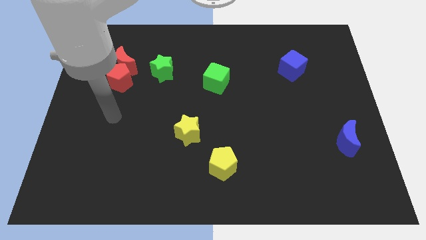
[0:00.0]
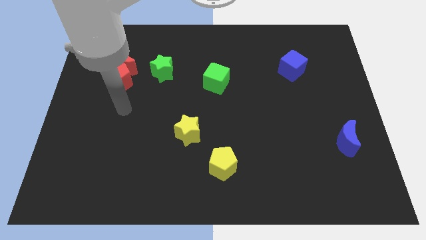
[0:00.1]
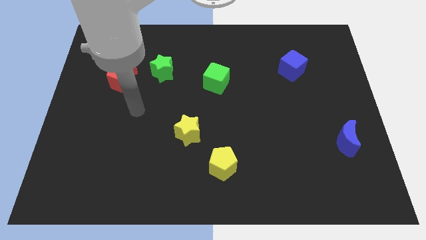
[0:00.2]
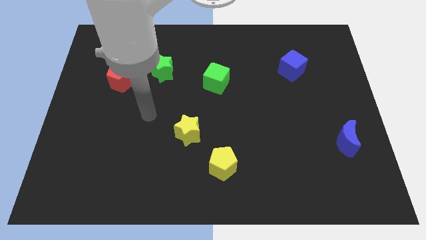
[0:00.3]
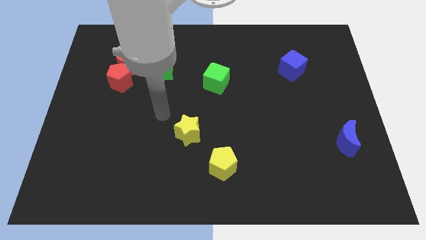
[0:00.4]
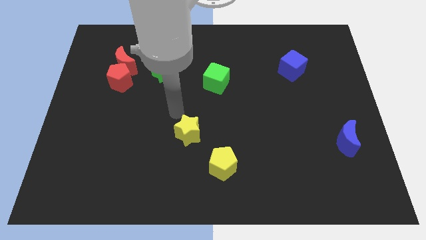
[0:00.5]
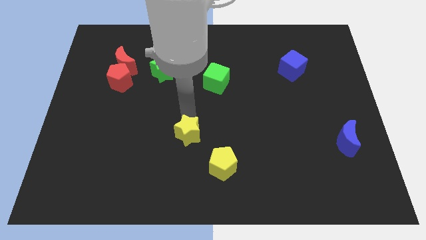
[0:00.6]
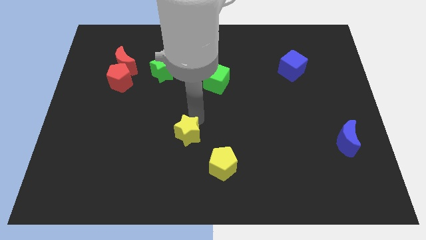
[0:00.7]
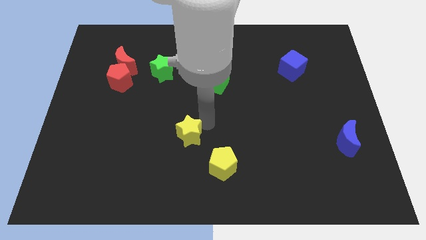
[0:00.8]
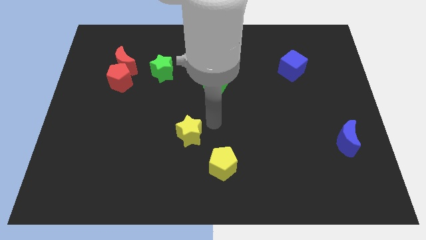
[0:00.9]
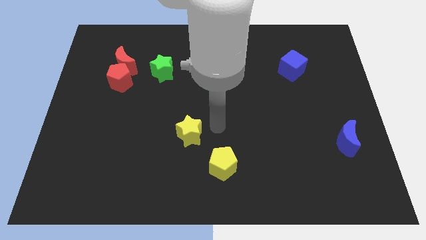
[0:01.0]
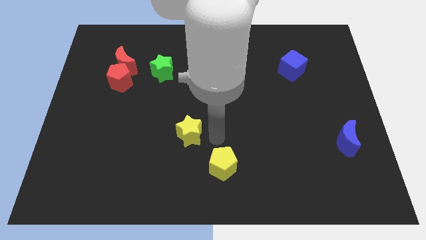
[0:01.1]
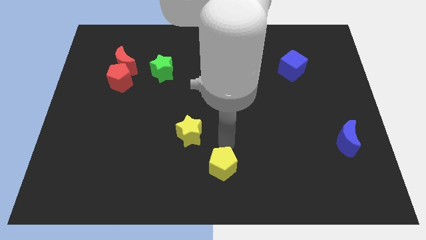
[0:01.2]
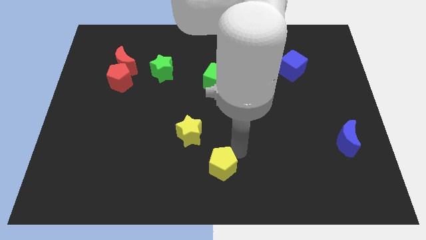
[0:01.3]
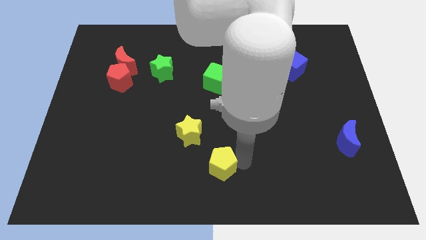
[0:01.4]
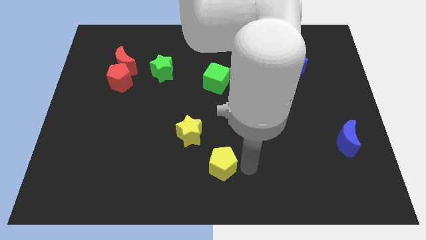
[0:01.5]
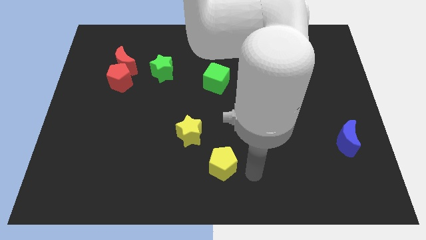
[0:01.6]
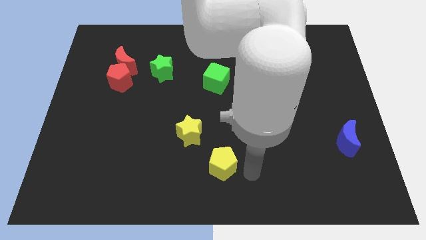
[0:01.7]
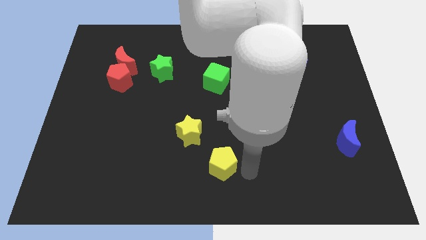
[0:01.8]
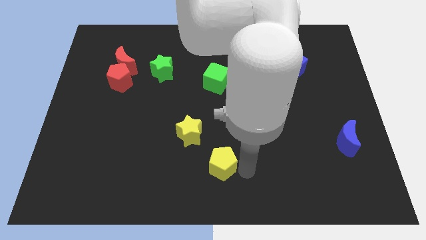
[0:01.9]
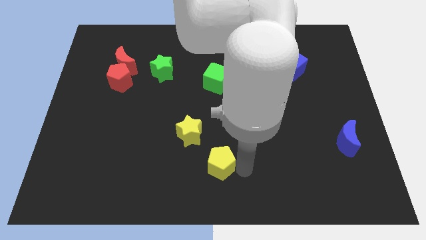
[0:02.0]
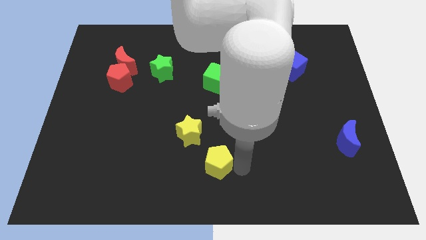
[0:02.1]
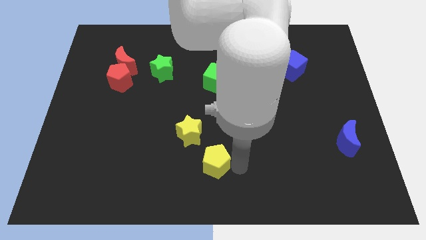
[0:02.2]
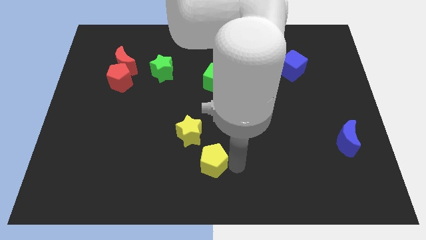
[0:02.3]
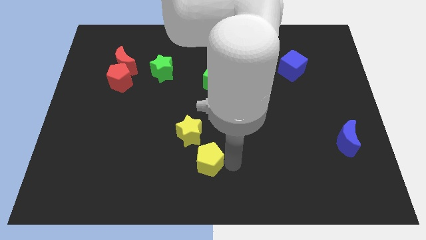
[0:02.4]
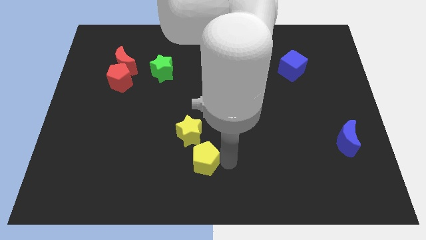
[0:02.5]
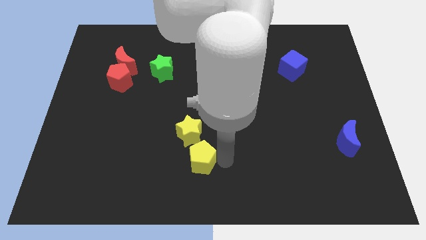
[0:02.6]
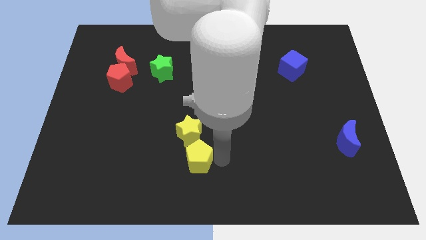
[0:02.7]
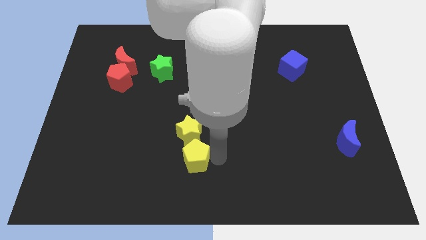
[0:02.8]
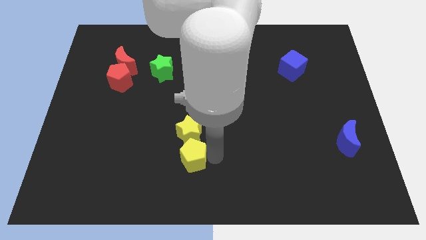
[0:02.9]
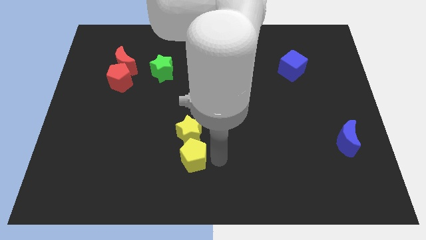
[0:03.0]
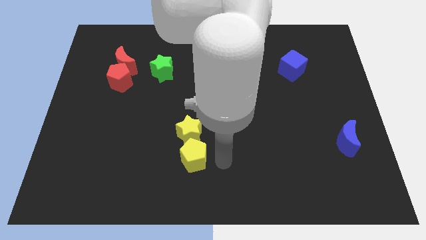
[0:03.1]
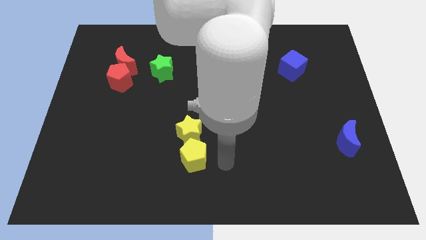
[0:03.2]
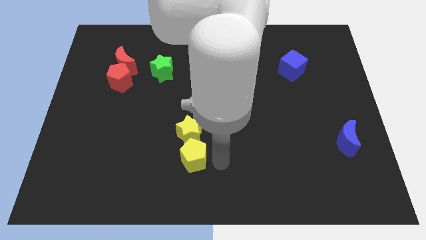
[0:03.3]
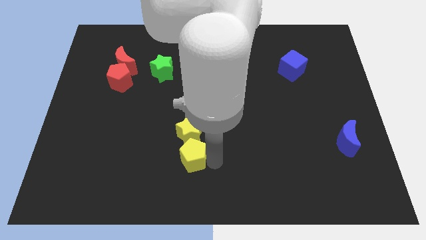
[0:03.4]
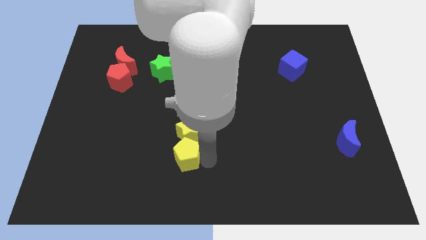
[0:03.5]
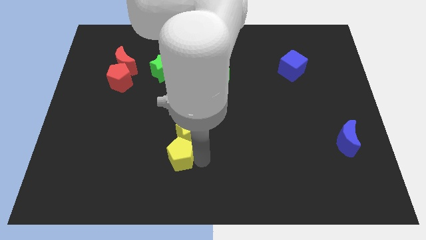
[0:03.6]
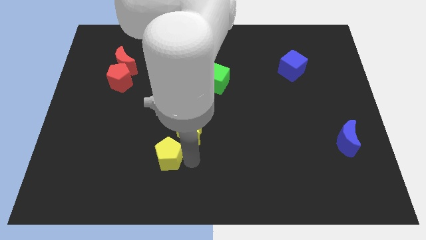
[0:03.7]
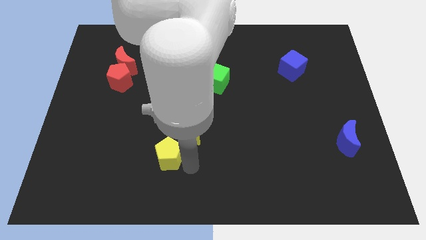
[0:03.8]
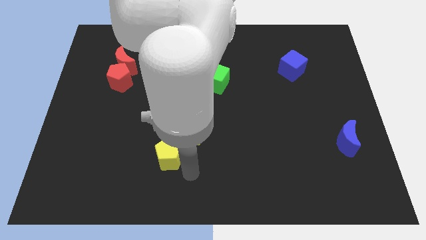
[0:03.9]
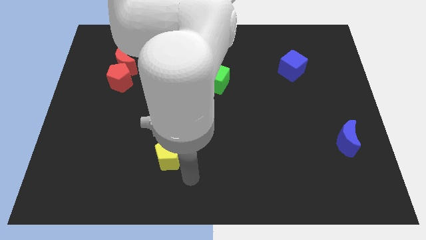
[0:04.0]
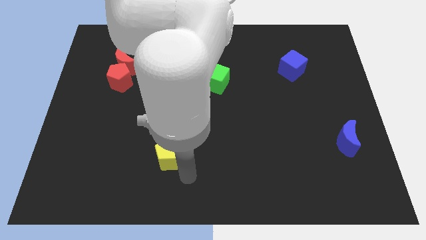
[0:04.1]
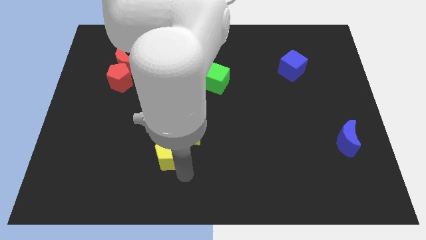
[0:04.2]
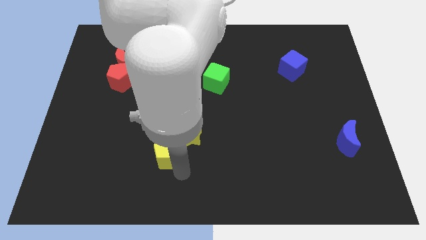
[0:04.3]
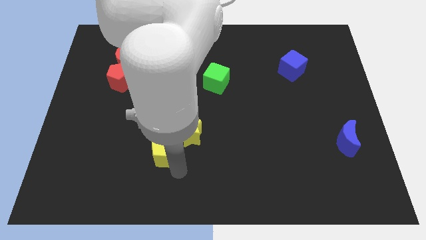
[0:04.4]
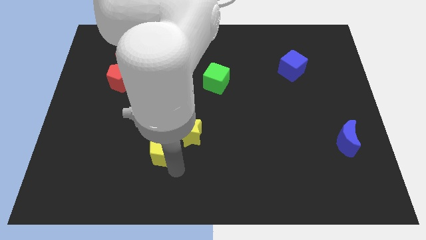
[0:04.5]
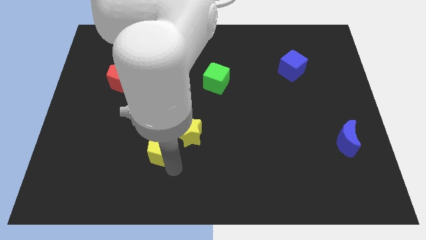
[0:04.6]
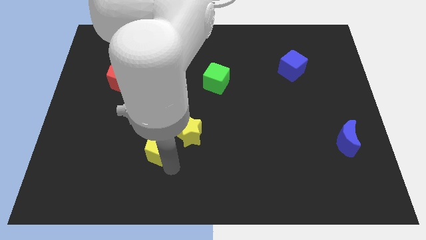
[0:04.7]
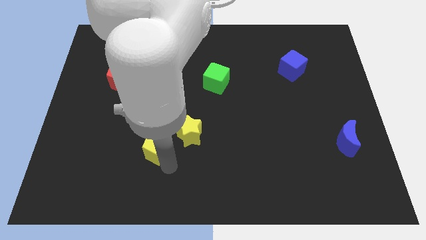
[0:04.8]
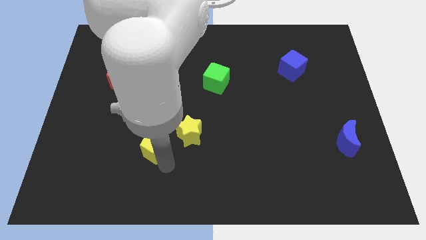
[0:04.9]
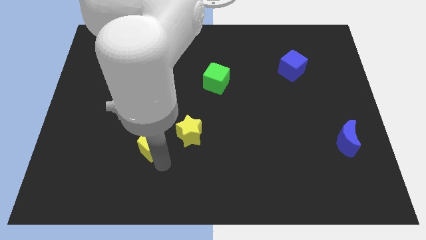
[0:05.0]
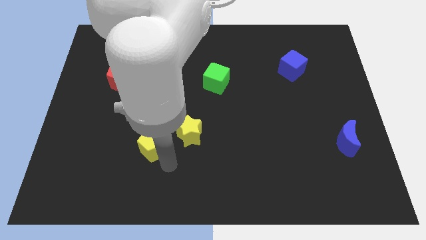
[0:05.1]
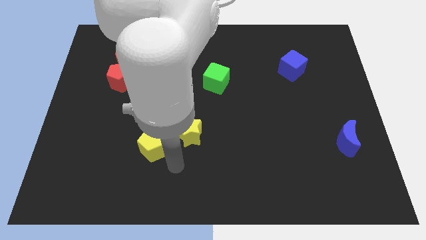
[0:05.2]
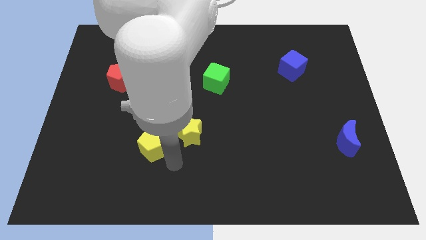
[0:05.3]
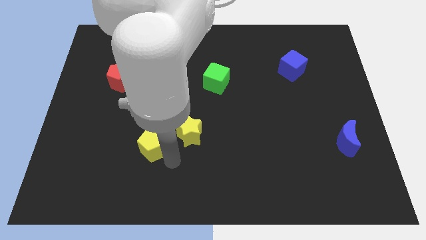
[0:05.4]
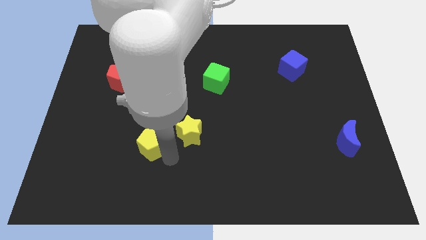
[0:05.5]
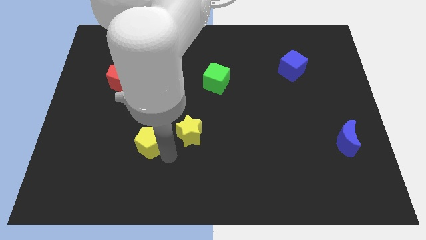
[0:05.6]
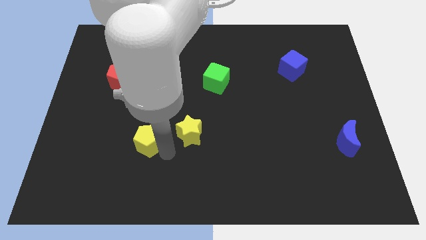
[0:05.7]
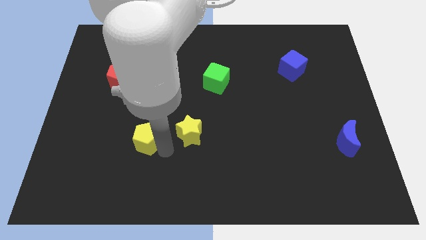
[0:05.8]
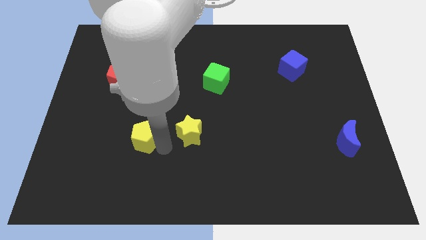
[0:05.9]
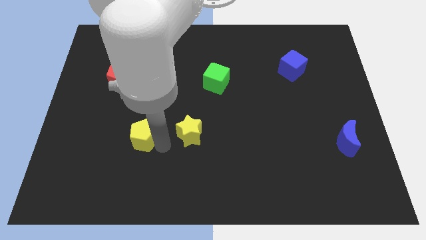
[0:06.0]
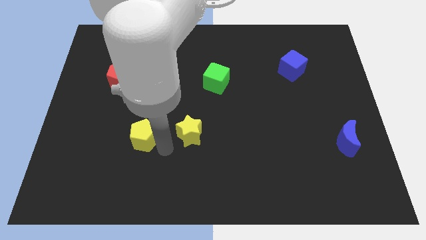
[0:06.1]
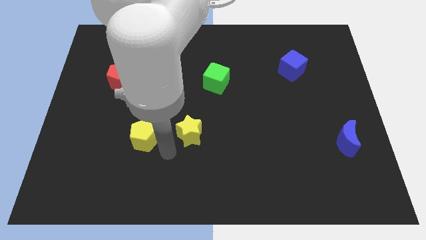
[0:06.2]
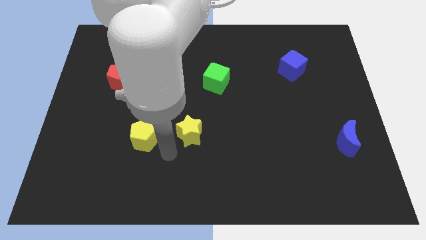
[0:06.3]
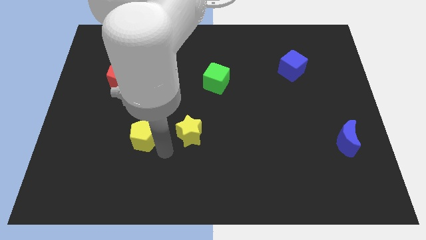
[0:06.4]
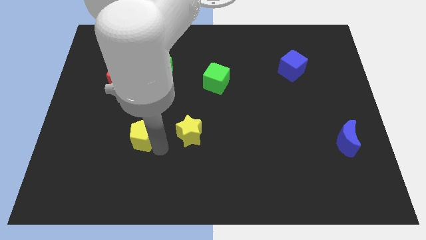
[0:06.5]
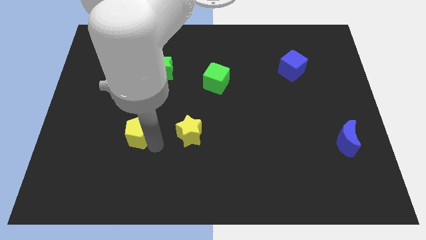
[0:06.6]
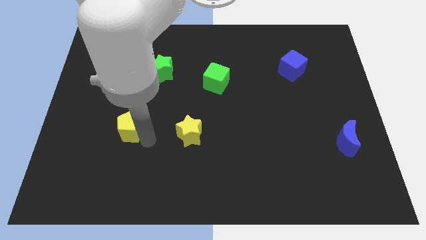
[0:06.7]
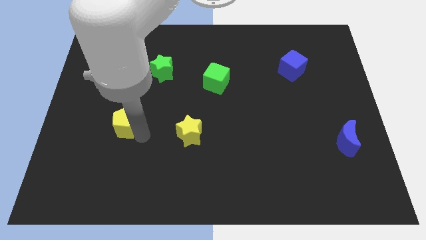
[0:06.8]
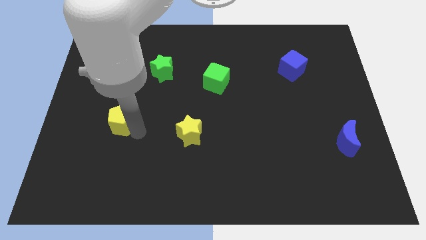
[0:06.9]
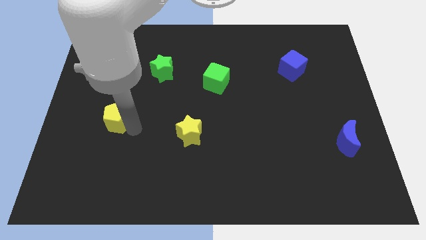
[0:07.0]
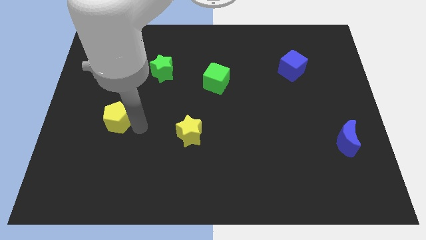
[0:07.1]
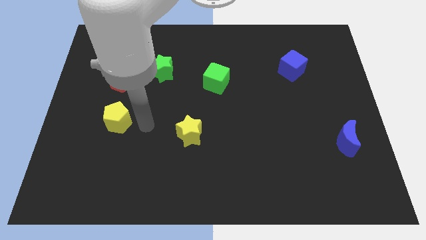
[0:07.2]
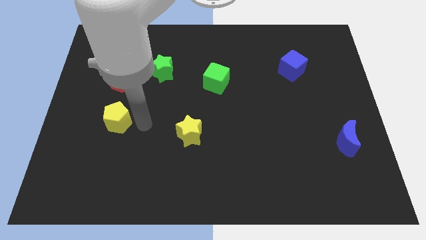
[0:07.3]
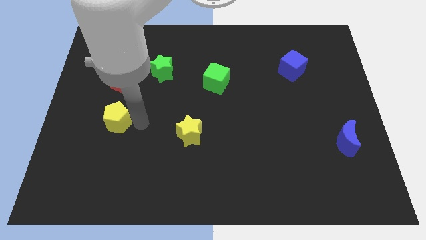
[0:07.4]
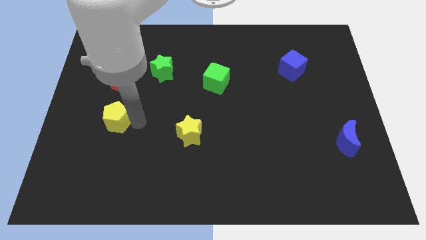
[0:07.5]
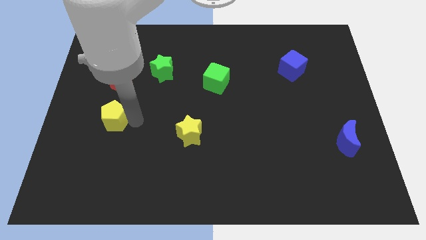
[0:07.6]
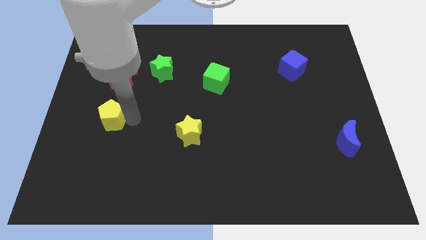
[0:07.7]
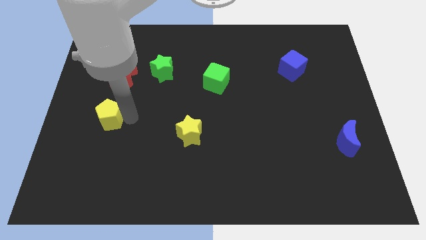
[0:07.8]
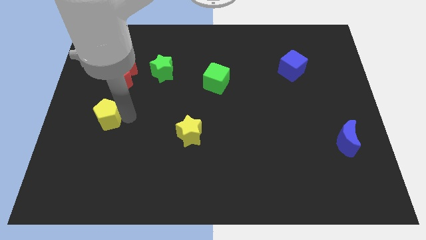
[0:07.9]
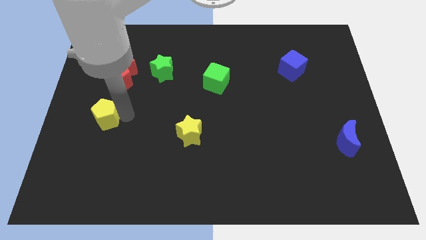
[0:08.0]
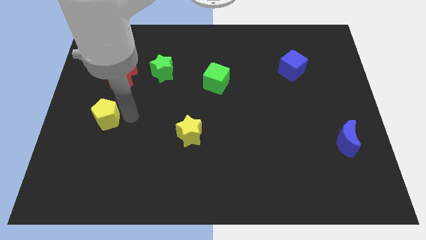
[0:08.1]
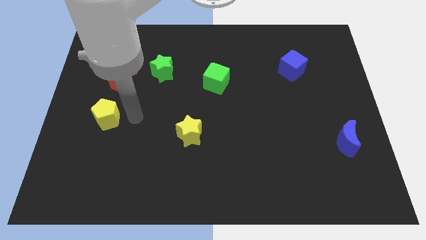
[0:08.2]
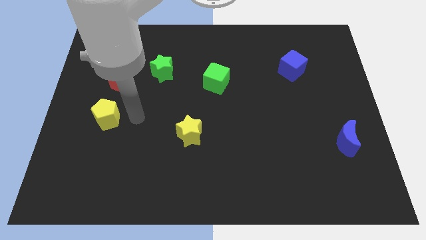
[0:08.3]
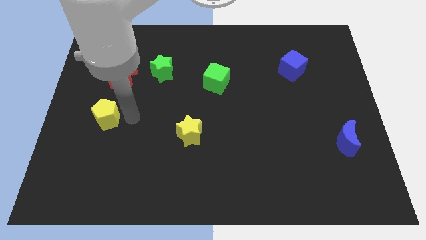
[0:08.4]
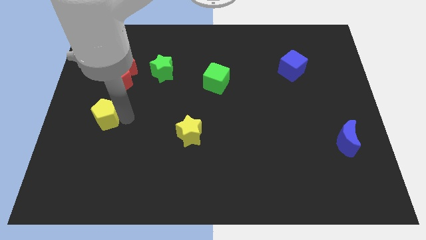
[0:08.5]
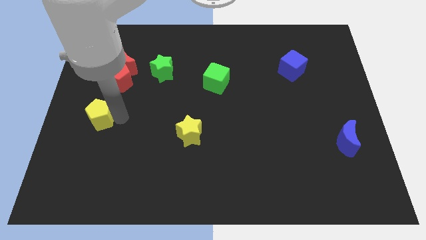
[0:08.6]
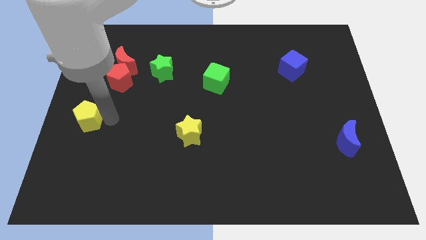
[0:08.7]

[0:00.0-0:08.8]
push the yellow pentagon to the center left
